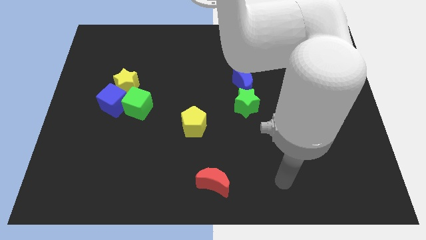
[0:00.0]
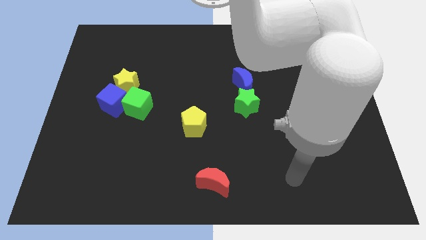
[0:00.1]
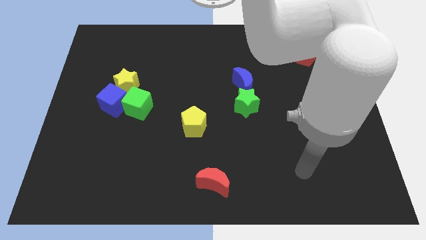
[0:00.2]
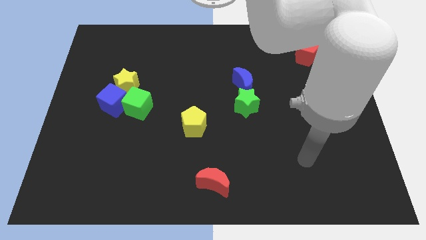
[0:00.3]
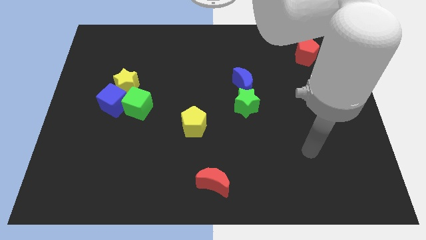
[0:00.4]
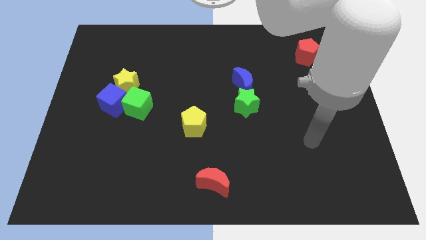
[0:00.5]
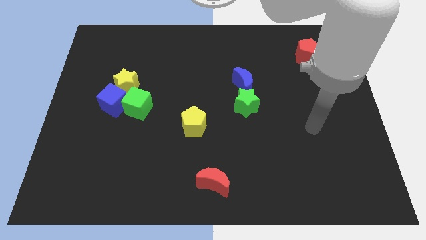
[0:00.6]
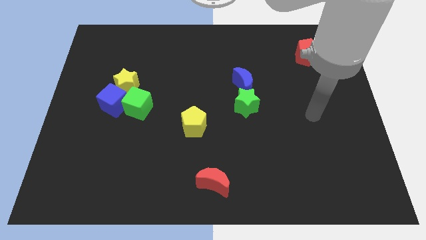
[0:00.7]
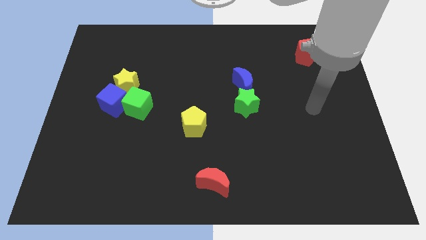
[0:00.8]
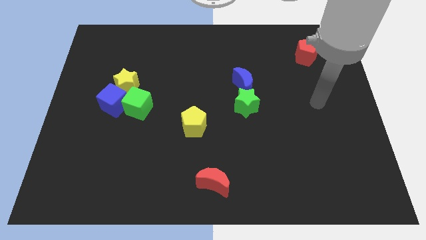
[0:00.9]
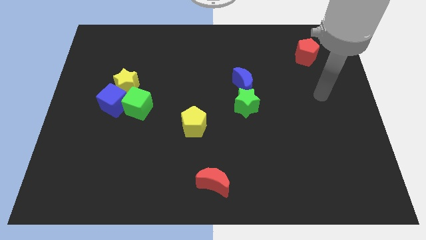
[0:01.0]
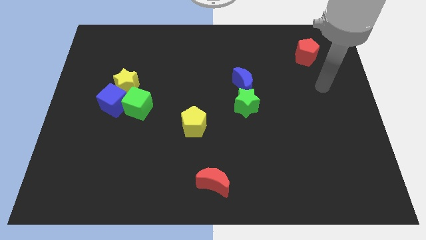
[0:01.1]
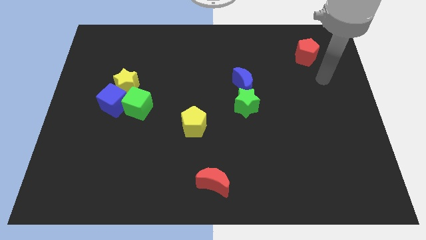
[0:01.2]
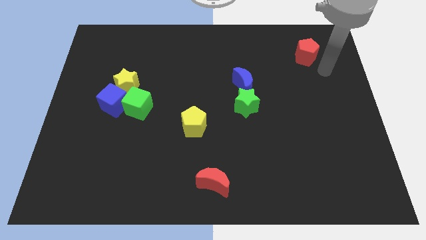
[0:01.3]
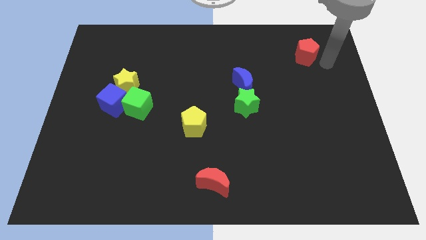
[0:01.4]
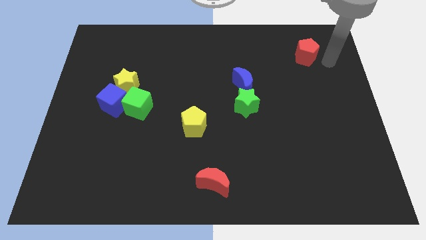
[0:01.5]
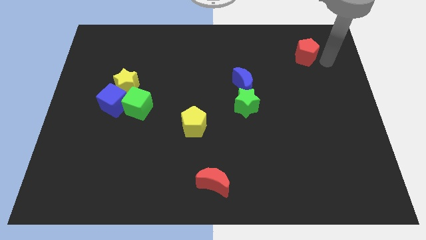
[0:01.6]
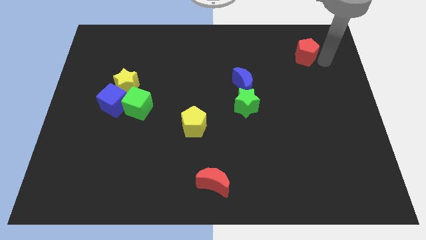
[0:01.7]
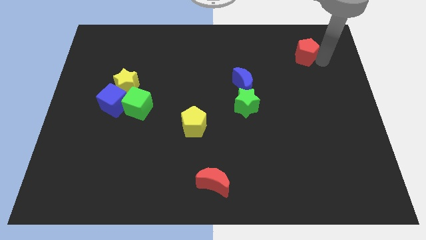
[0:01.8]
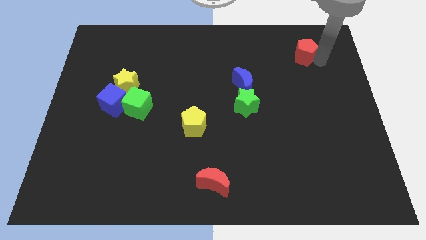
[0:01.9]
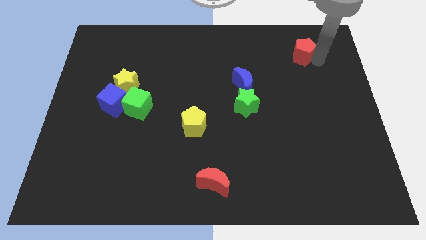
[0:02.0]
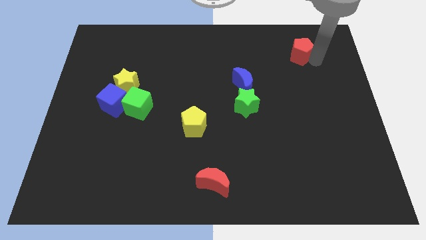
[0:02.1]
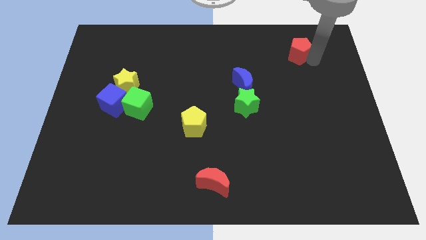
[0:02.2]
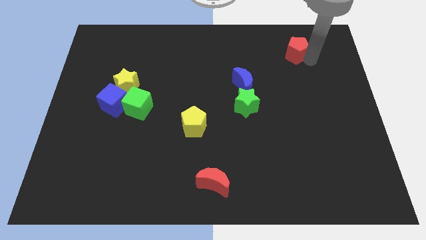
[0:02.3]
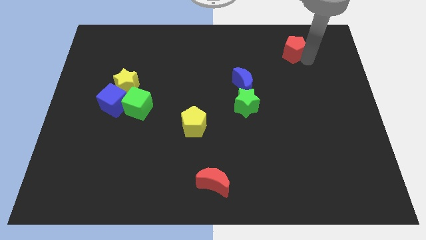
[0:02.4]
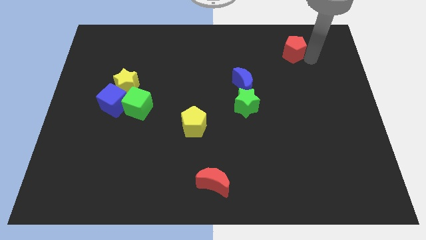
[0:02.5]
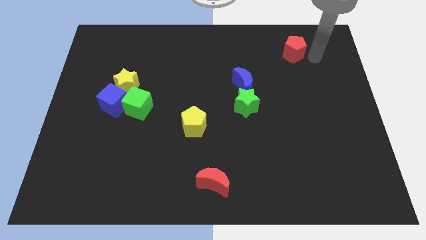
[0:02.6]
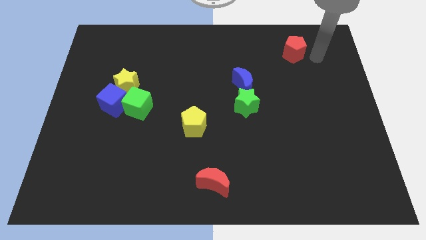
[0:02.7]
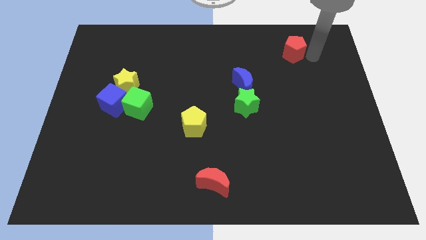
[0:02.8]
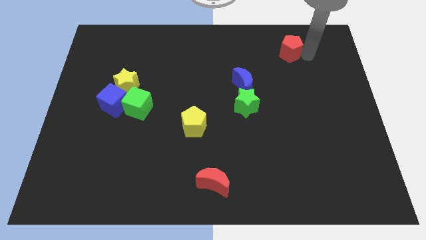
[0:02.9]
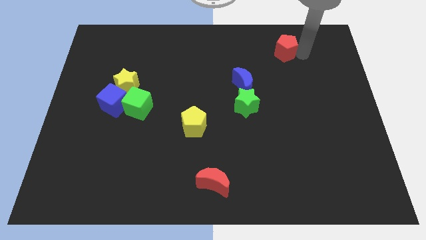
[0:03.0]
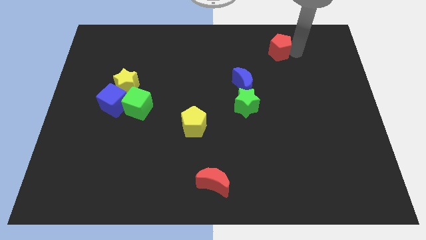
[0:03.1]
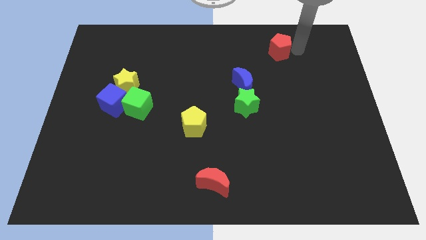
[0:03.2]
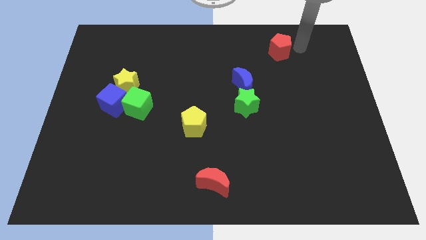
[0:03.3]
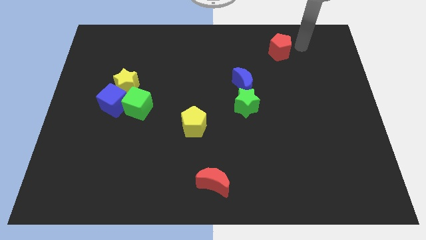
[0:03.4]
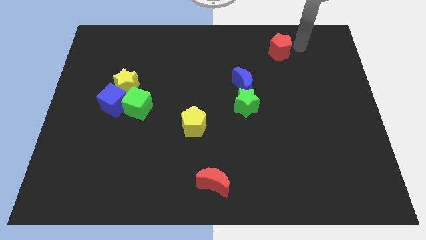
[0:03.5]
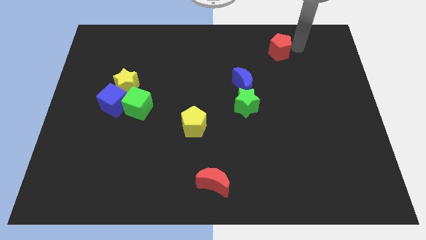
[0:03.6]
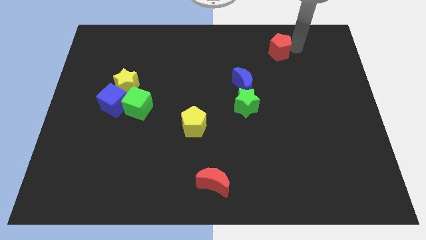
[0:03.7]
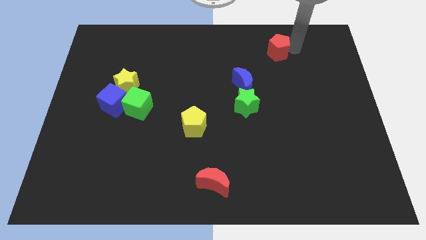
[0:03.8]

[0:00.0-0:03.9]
slightly move the red pentagon to the left

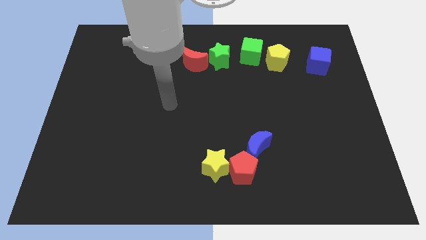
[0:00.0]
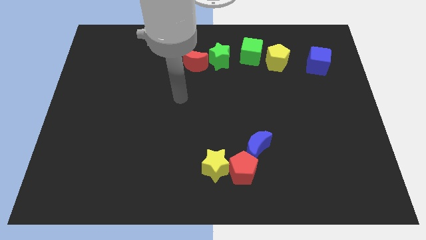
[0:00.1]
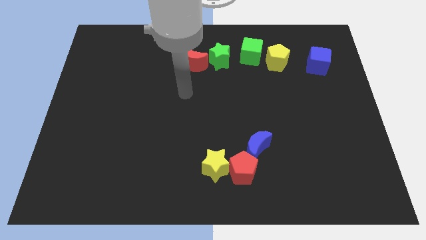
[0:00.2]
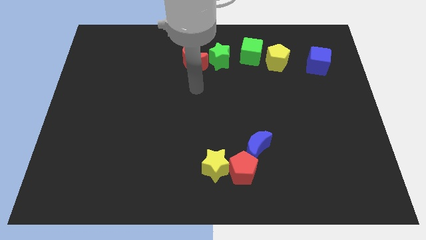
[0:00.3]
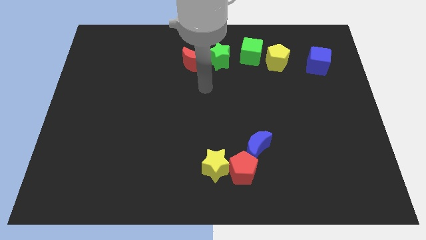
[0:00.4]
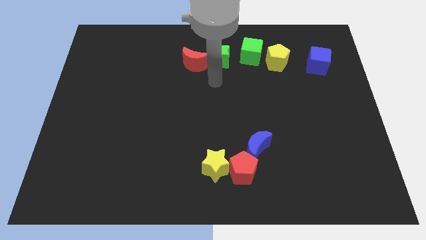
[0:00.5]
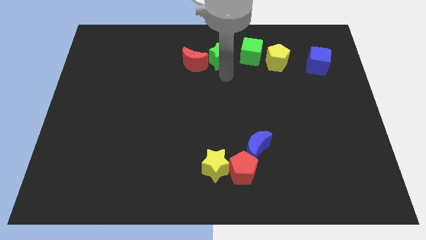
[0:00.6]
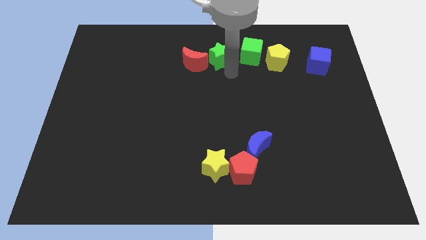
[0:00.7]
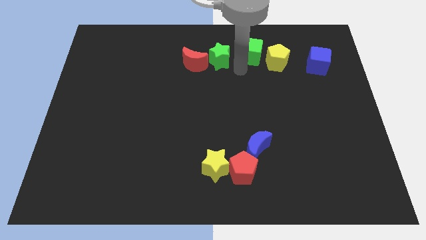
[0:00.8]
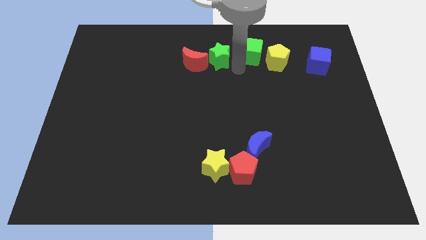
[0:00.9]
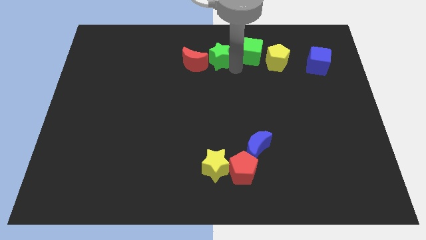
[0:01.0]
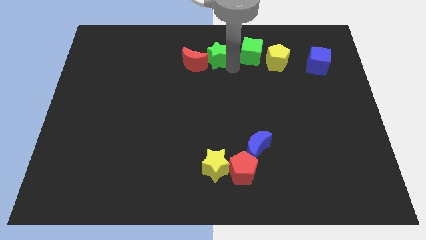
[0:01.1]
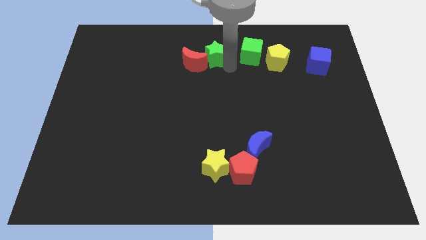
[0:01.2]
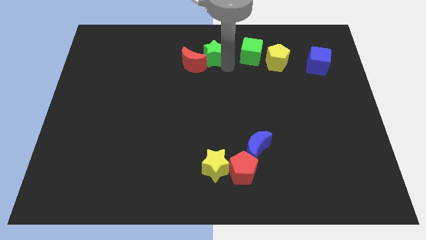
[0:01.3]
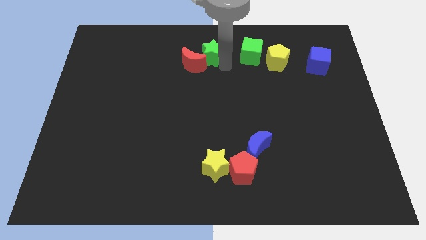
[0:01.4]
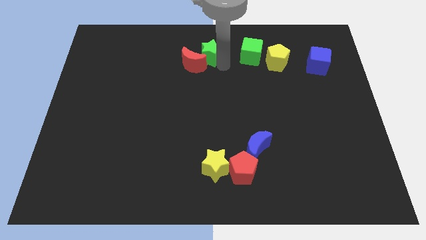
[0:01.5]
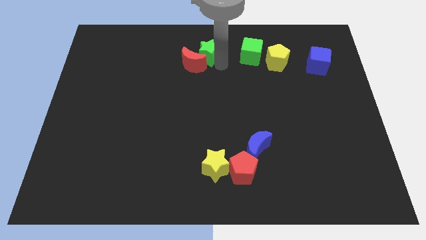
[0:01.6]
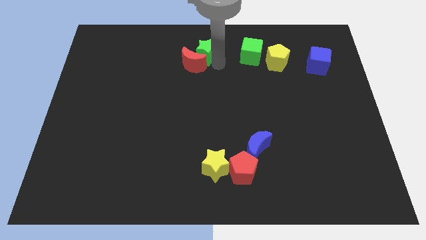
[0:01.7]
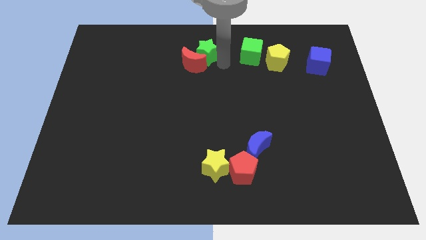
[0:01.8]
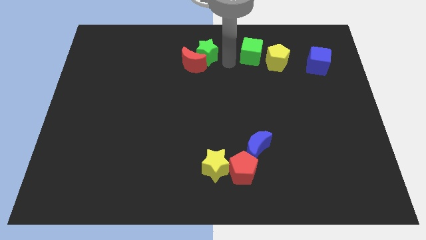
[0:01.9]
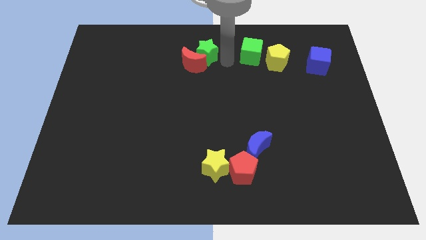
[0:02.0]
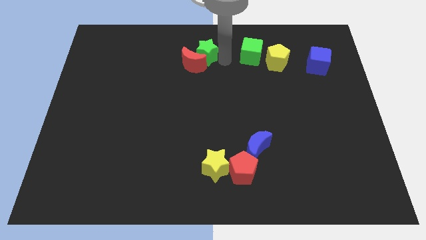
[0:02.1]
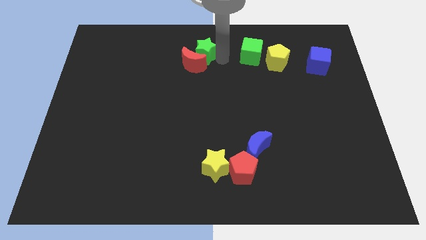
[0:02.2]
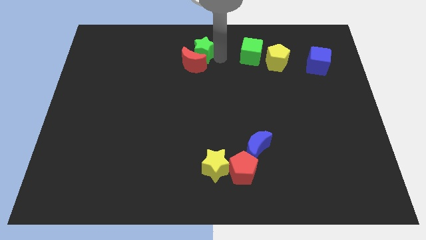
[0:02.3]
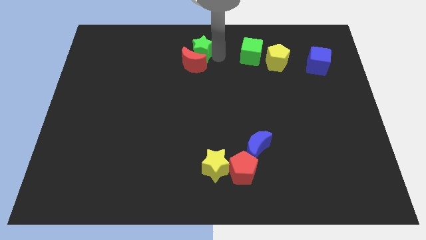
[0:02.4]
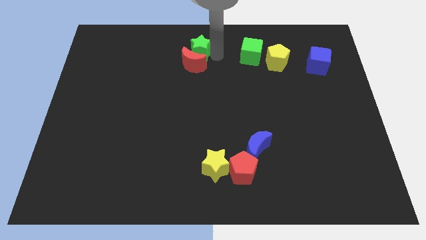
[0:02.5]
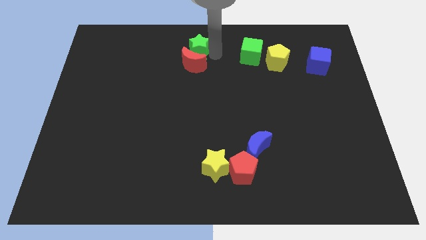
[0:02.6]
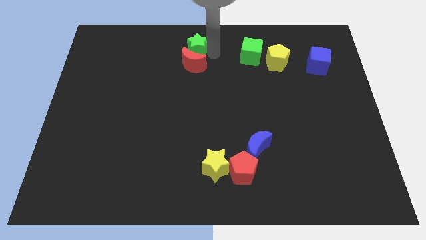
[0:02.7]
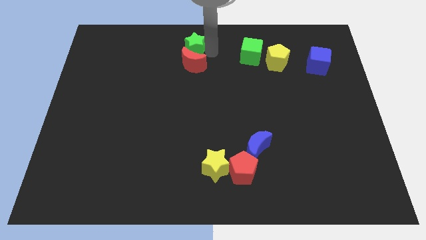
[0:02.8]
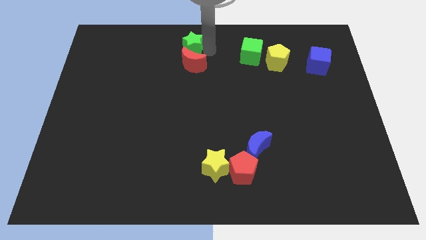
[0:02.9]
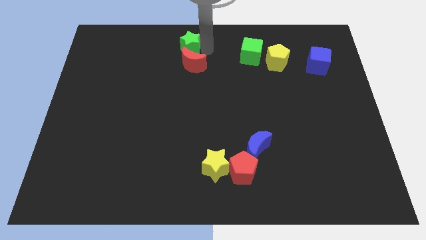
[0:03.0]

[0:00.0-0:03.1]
push the green star left somewhat

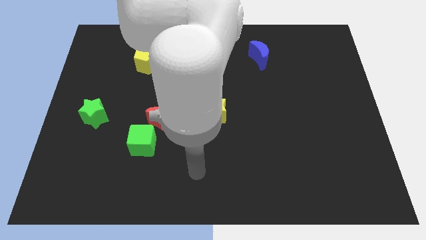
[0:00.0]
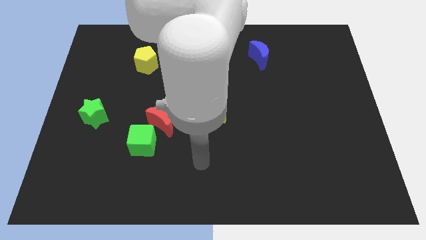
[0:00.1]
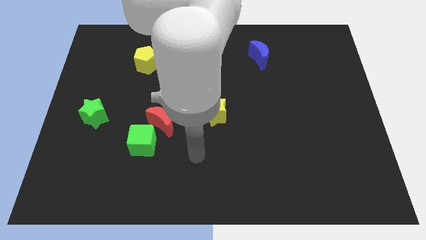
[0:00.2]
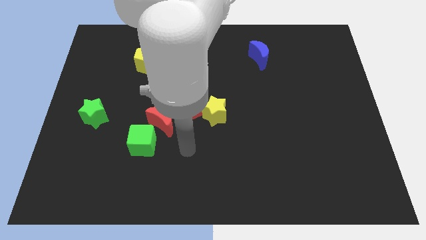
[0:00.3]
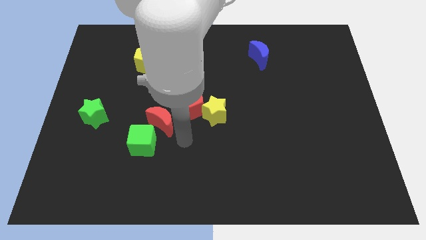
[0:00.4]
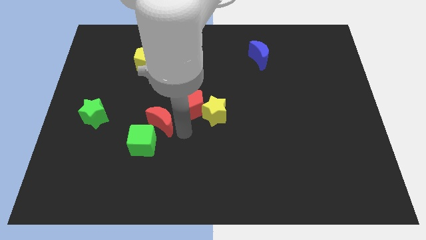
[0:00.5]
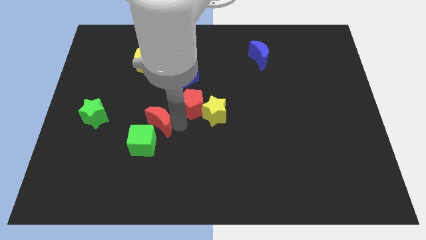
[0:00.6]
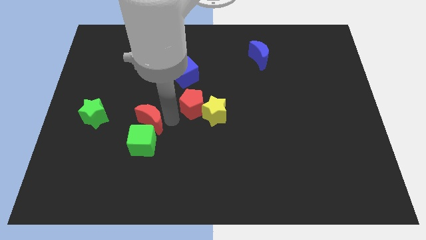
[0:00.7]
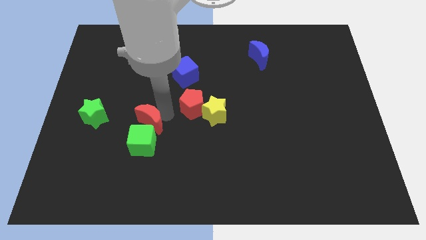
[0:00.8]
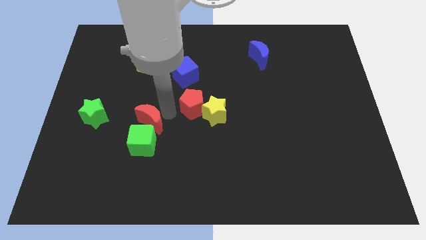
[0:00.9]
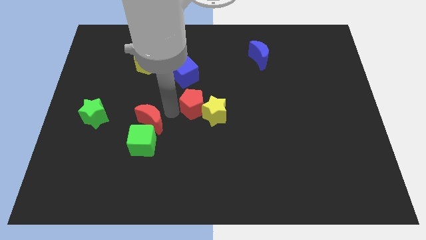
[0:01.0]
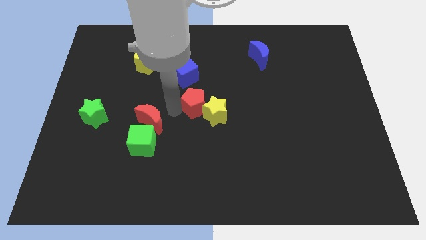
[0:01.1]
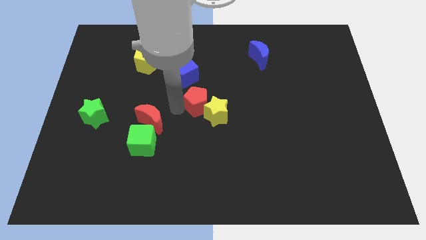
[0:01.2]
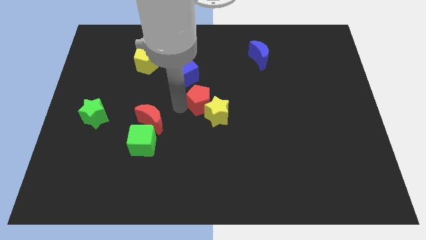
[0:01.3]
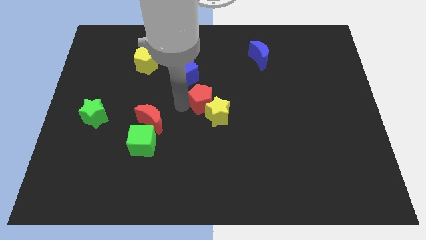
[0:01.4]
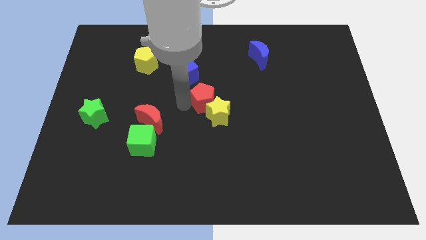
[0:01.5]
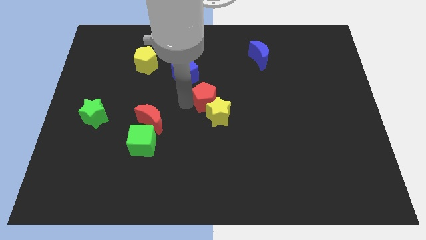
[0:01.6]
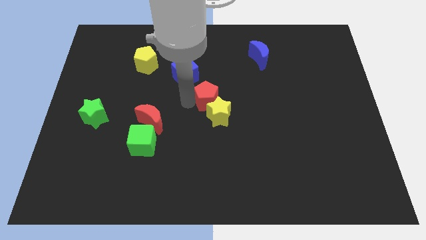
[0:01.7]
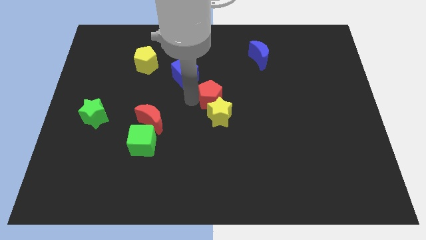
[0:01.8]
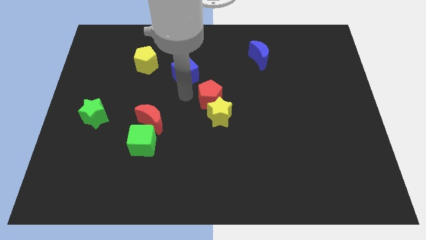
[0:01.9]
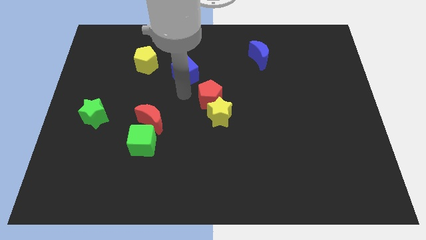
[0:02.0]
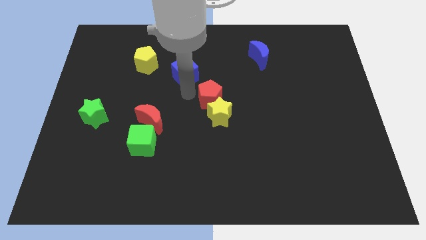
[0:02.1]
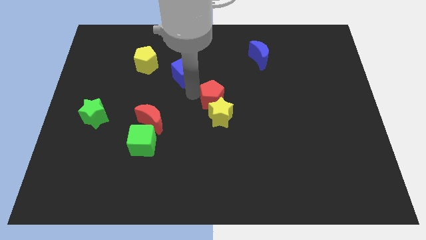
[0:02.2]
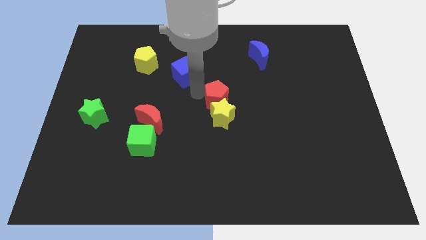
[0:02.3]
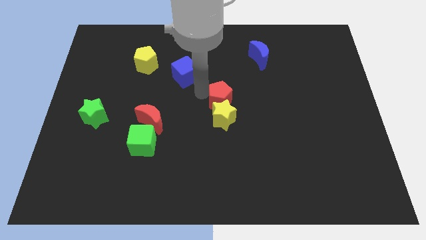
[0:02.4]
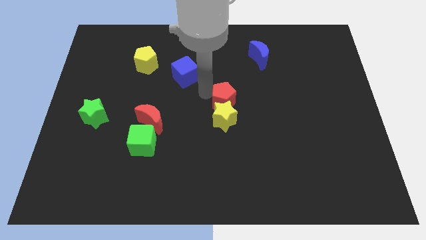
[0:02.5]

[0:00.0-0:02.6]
slightly move the red pentagon to the right
